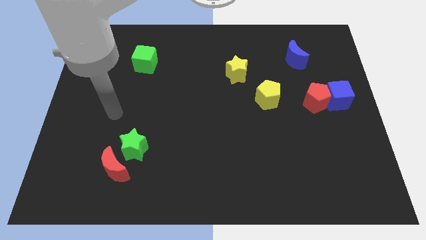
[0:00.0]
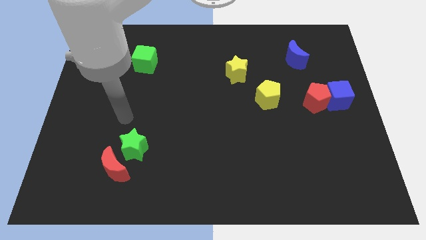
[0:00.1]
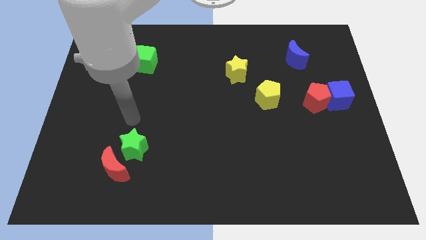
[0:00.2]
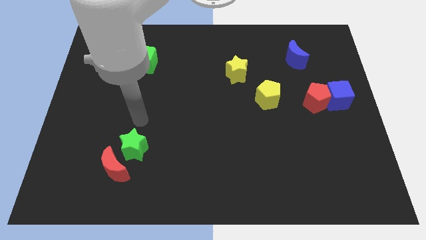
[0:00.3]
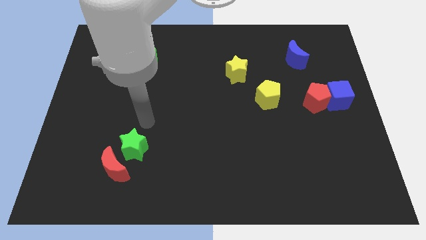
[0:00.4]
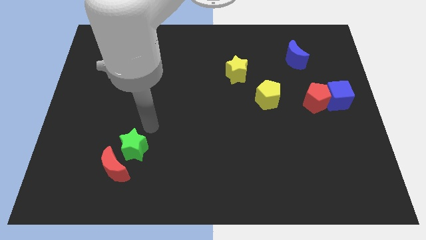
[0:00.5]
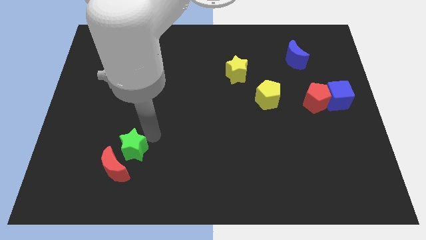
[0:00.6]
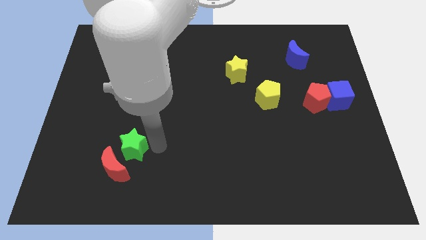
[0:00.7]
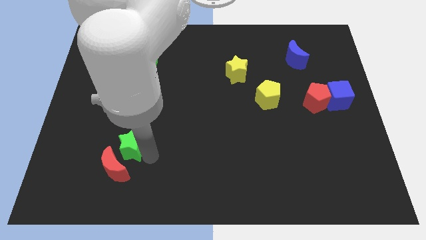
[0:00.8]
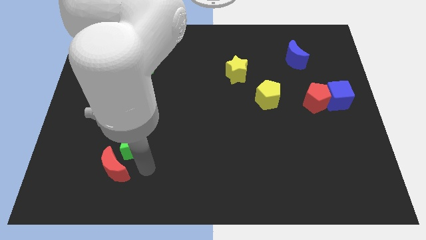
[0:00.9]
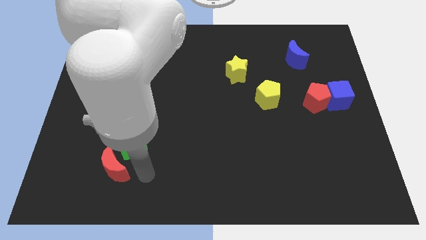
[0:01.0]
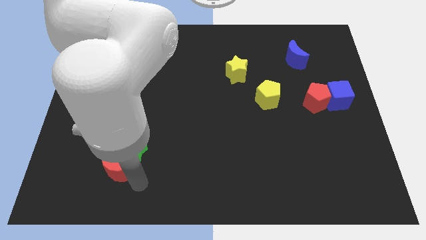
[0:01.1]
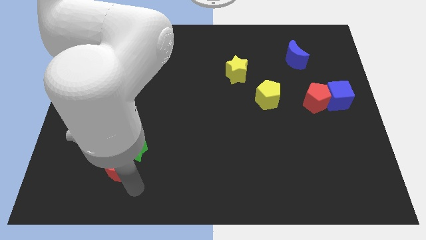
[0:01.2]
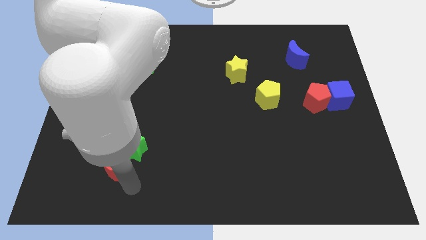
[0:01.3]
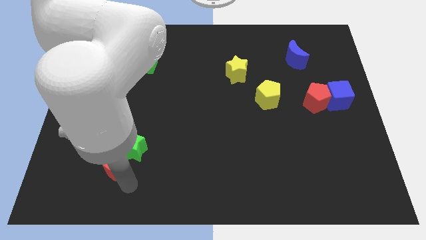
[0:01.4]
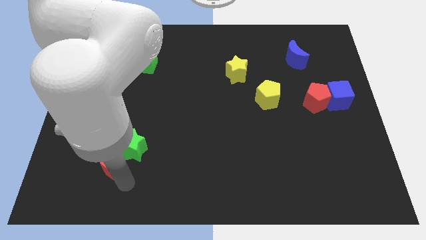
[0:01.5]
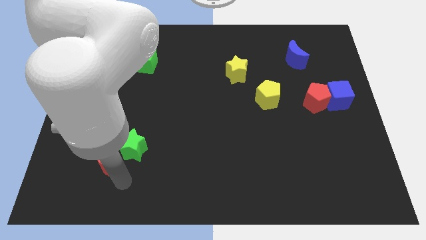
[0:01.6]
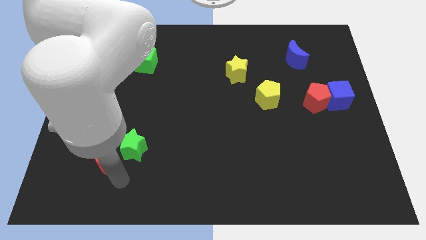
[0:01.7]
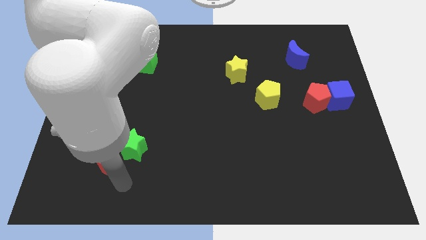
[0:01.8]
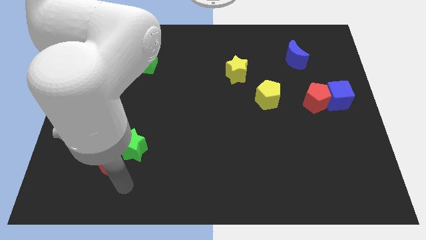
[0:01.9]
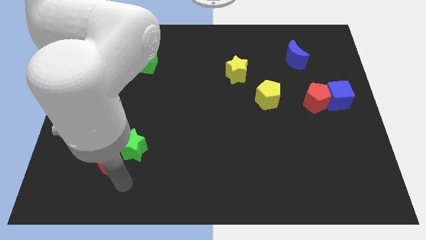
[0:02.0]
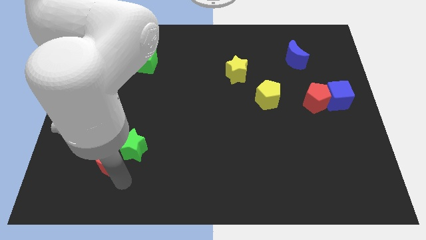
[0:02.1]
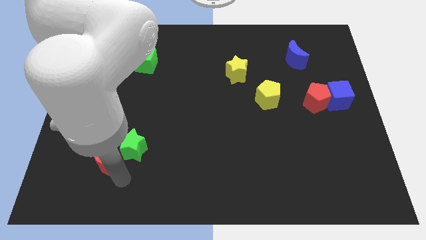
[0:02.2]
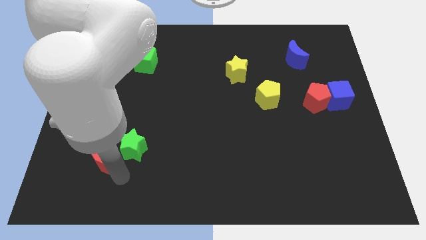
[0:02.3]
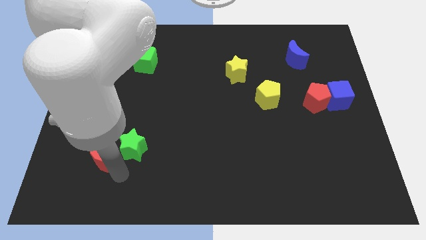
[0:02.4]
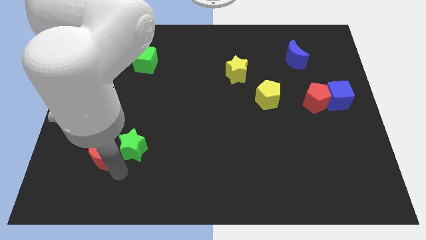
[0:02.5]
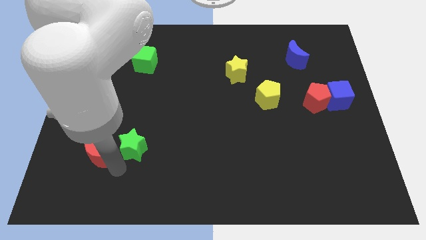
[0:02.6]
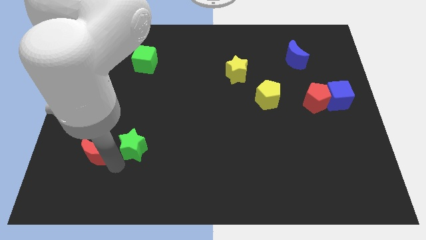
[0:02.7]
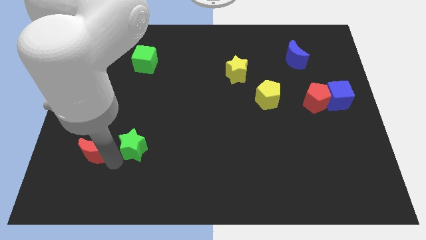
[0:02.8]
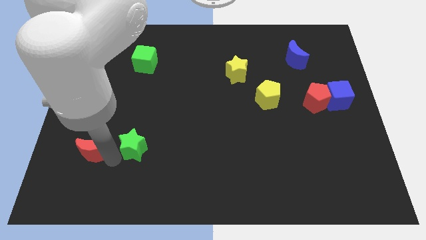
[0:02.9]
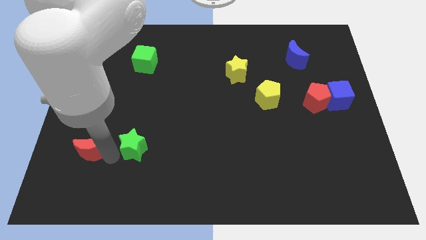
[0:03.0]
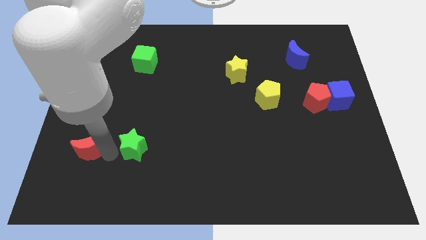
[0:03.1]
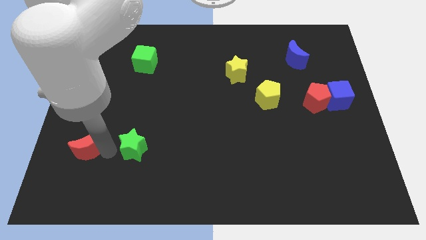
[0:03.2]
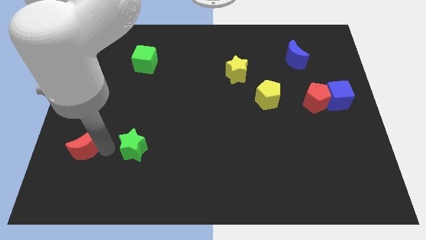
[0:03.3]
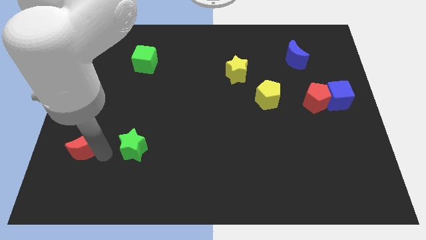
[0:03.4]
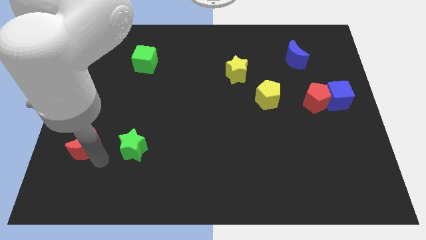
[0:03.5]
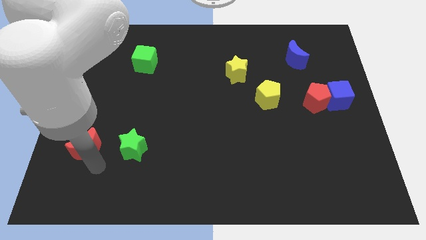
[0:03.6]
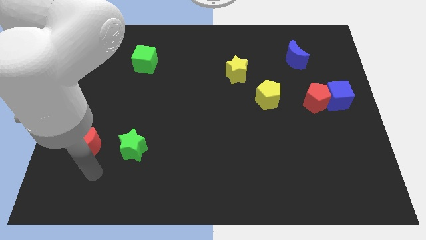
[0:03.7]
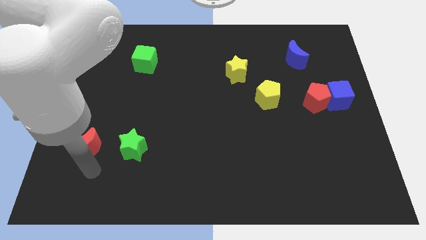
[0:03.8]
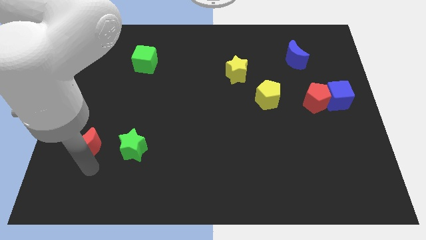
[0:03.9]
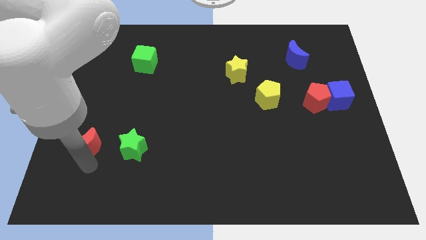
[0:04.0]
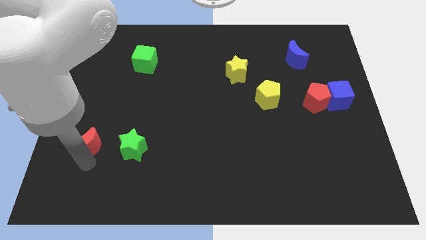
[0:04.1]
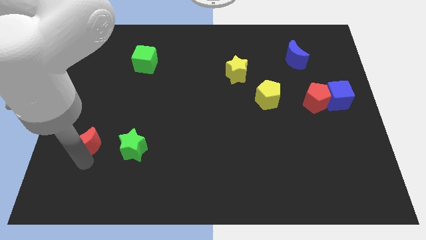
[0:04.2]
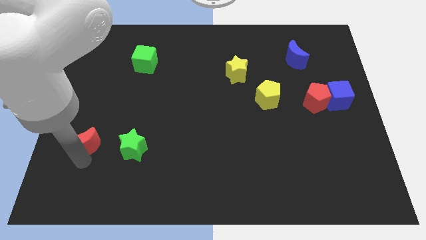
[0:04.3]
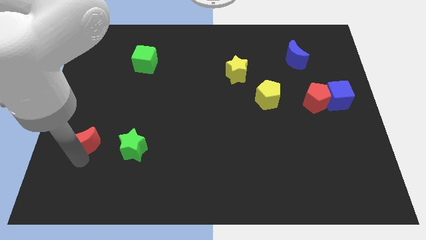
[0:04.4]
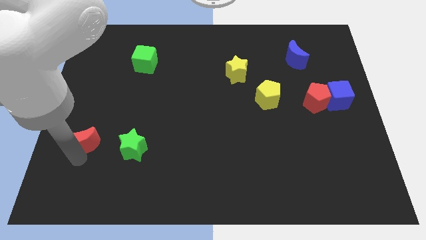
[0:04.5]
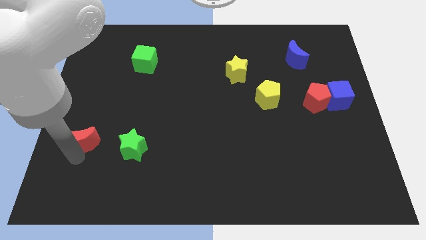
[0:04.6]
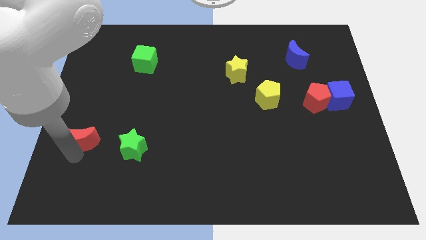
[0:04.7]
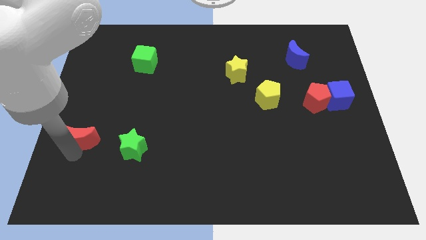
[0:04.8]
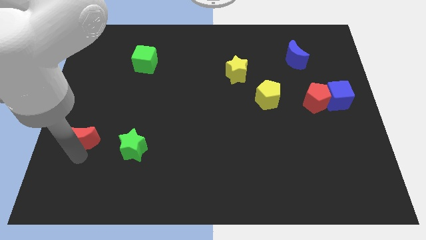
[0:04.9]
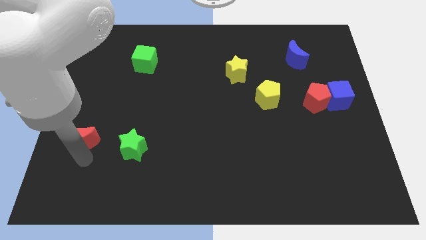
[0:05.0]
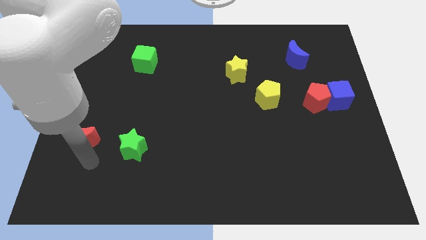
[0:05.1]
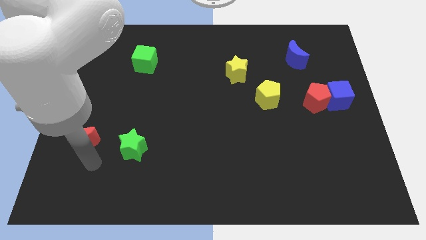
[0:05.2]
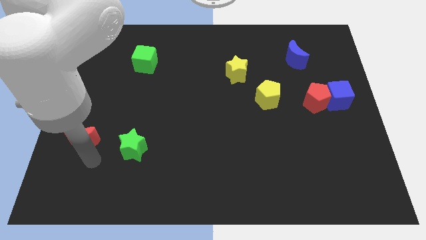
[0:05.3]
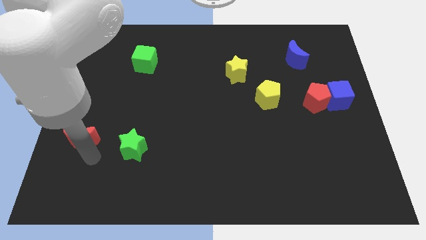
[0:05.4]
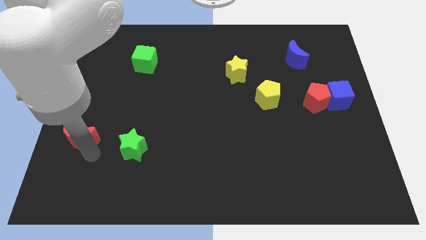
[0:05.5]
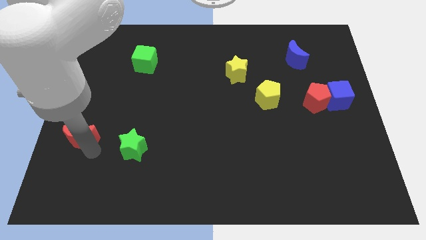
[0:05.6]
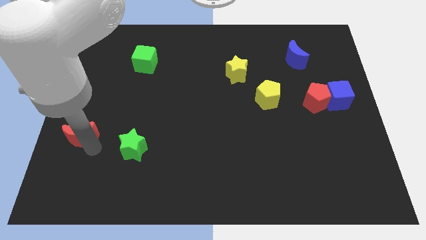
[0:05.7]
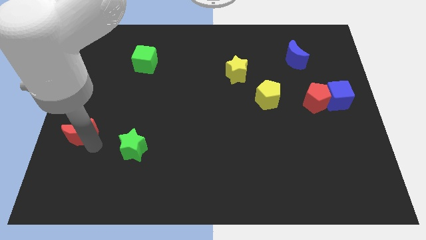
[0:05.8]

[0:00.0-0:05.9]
push the red moon to the center left
